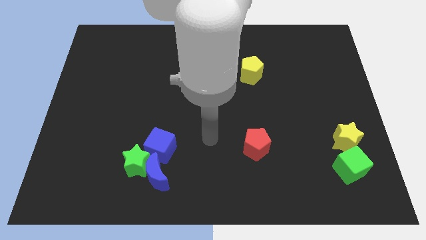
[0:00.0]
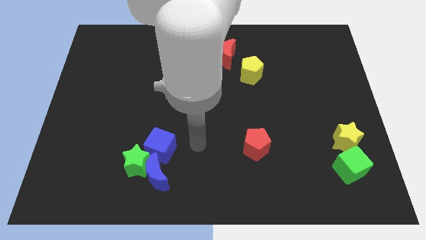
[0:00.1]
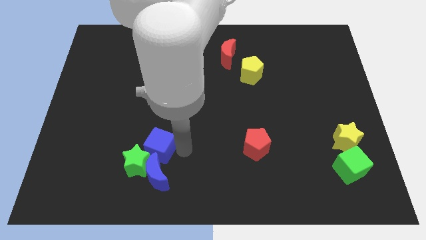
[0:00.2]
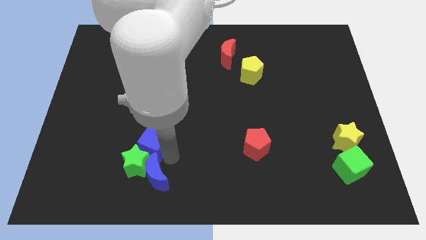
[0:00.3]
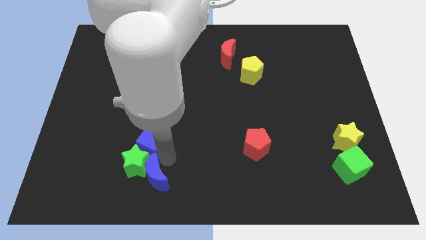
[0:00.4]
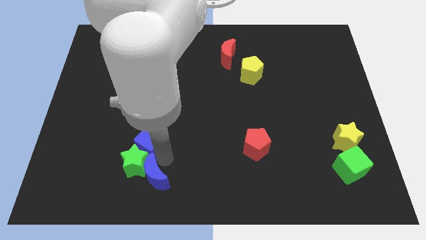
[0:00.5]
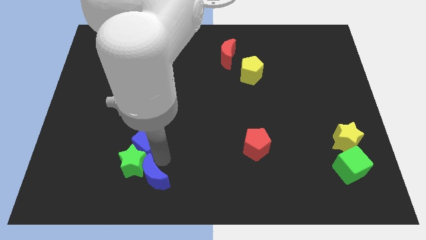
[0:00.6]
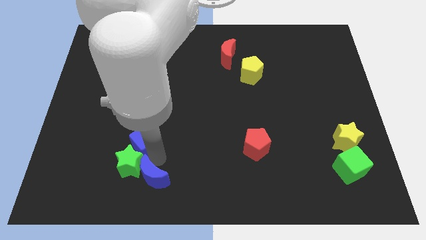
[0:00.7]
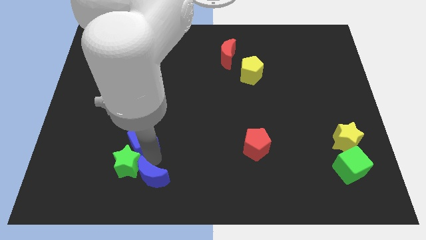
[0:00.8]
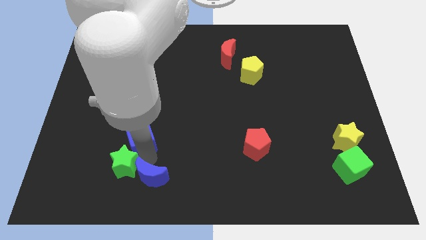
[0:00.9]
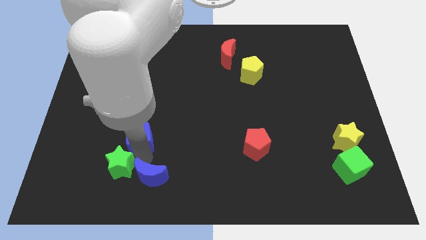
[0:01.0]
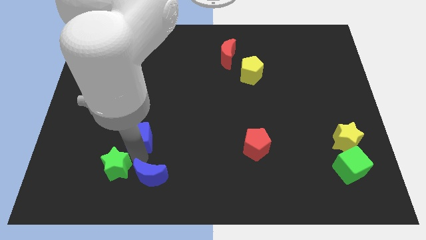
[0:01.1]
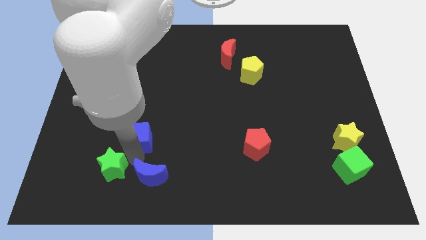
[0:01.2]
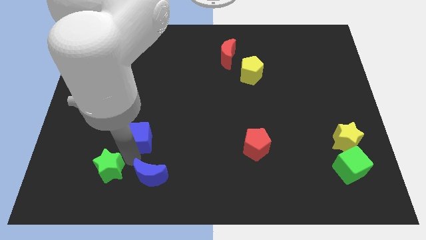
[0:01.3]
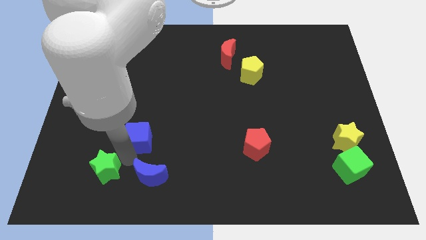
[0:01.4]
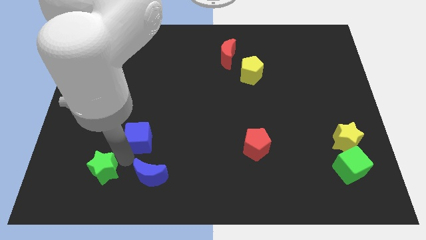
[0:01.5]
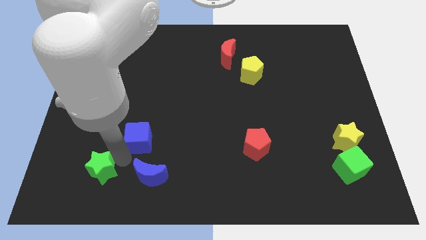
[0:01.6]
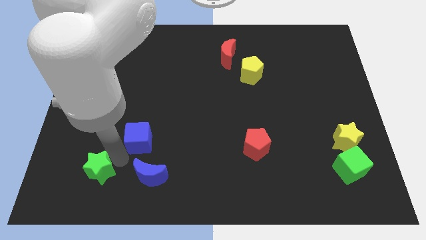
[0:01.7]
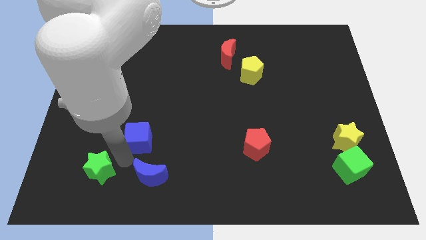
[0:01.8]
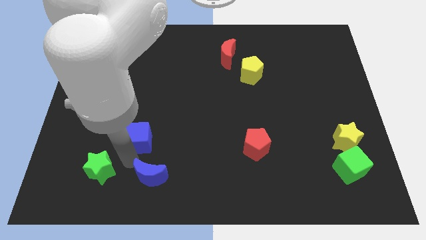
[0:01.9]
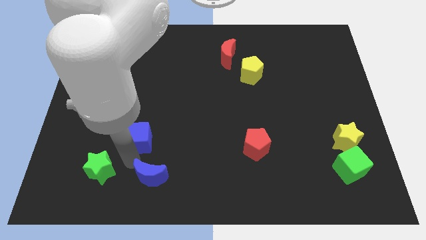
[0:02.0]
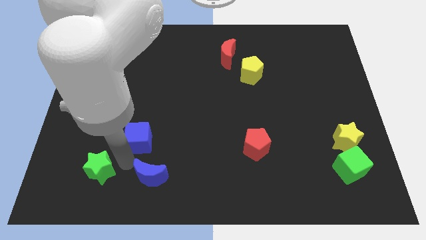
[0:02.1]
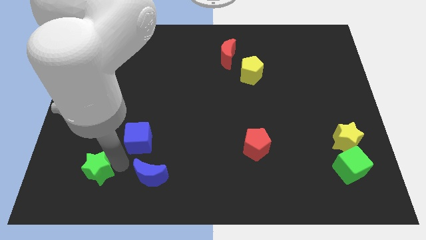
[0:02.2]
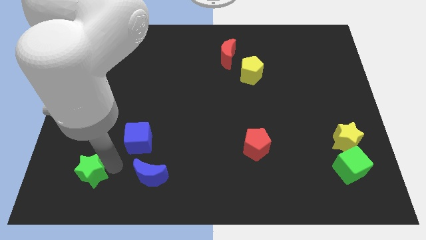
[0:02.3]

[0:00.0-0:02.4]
move the green star away from the blue moon and blue cube

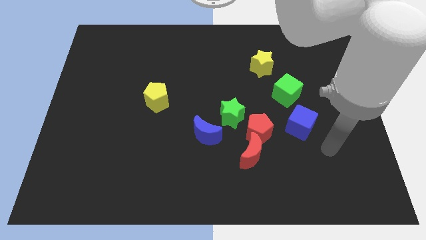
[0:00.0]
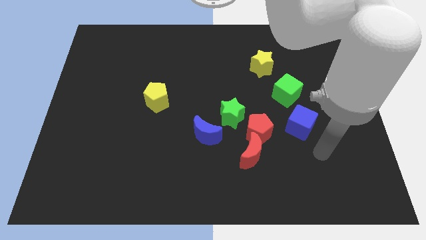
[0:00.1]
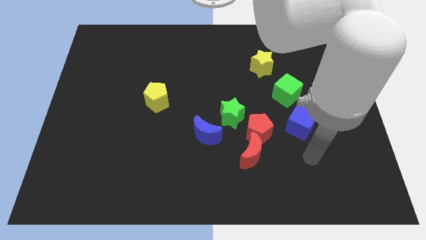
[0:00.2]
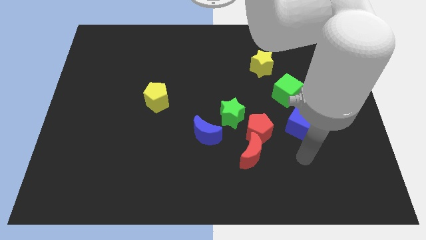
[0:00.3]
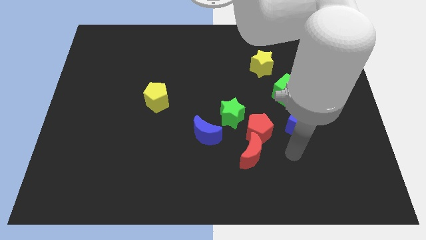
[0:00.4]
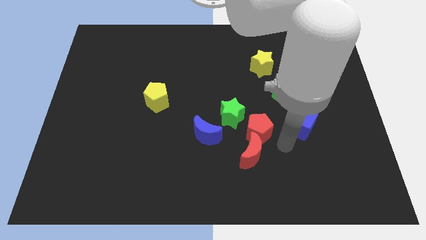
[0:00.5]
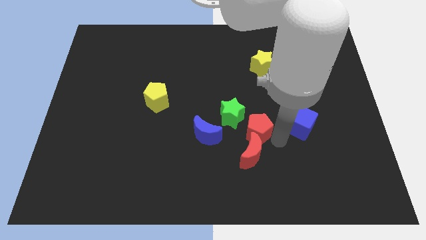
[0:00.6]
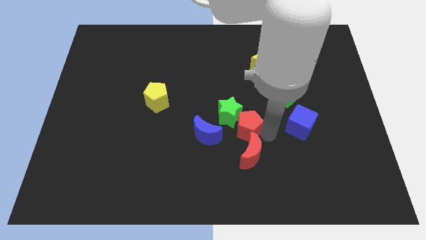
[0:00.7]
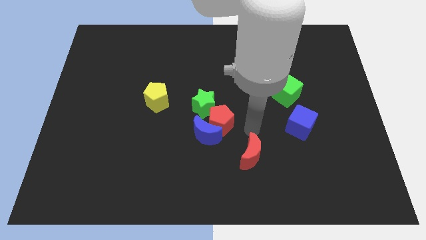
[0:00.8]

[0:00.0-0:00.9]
separate the red moon from the red pentagon

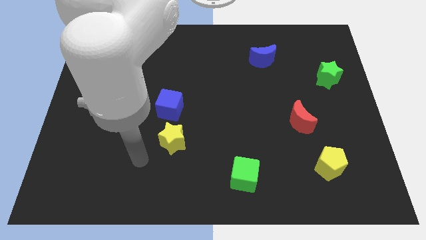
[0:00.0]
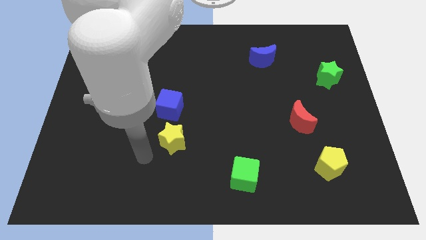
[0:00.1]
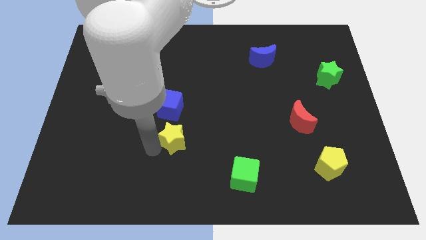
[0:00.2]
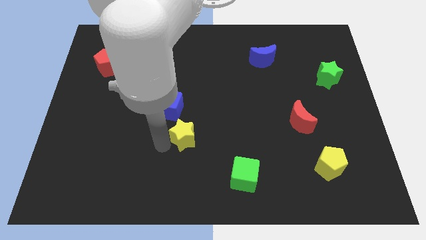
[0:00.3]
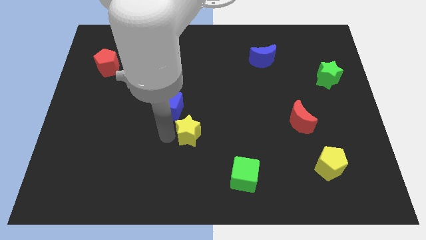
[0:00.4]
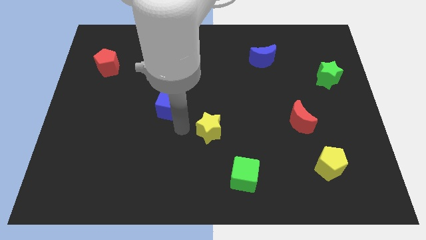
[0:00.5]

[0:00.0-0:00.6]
move the blue cube away from the yellow star

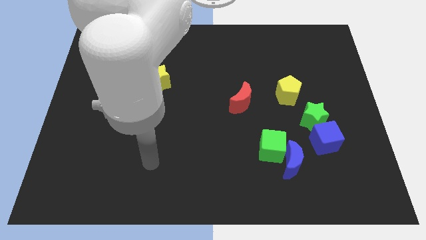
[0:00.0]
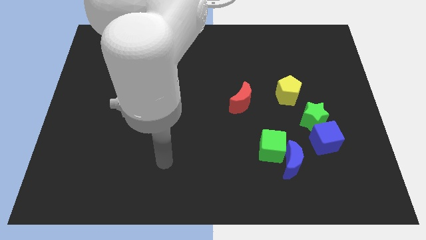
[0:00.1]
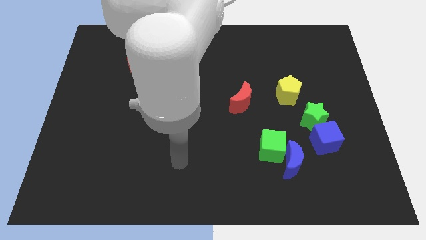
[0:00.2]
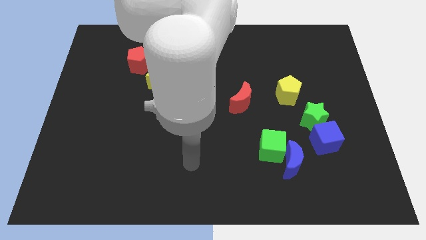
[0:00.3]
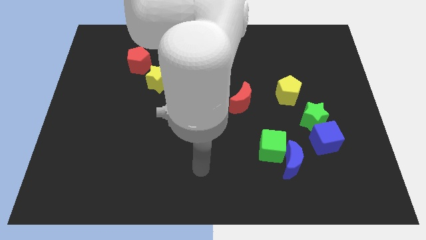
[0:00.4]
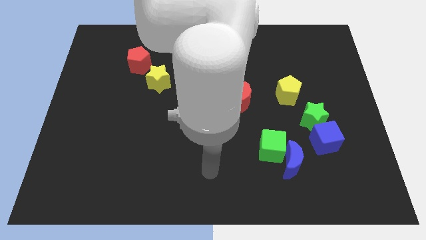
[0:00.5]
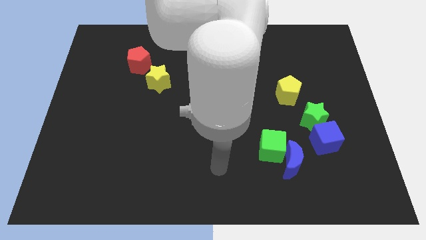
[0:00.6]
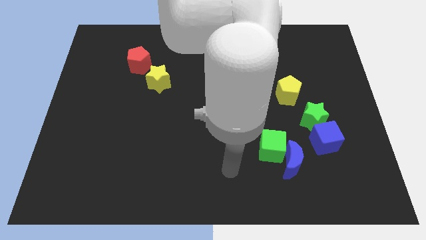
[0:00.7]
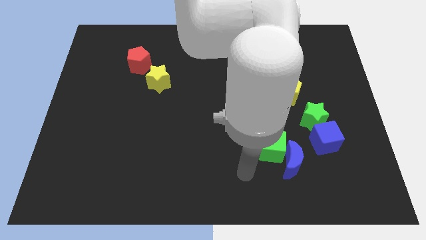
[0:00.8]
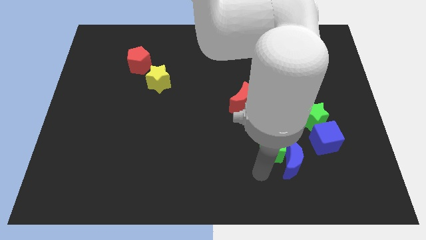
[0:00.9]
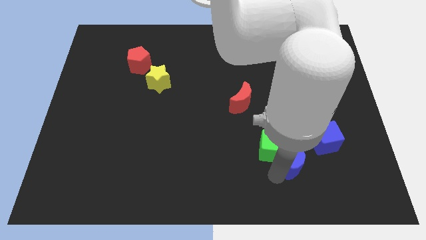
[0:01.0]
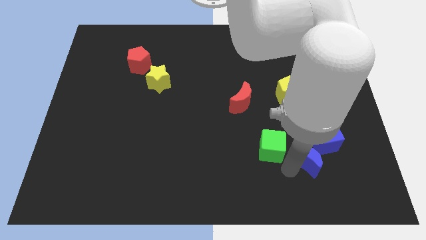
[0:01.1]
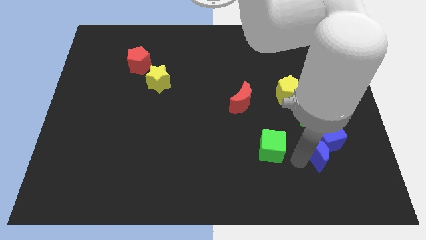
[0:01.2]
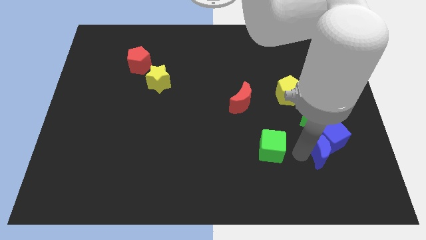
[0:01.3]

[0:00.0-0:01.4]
separate the green cube from the blue moon

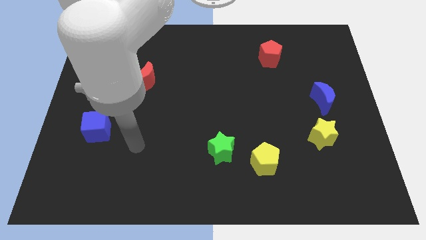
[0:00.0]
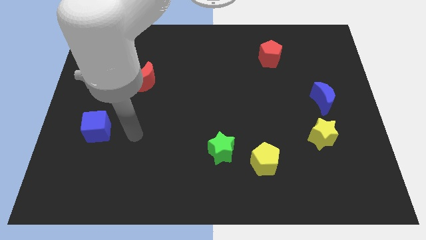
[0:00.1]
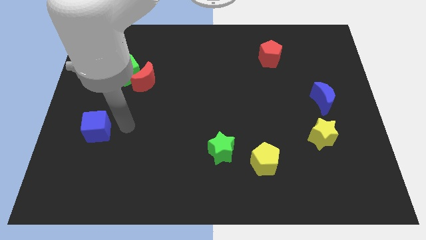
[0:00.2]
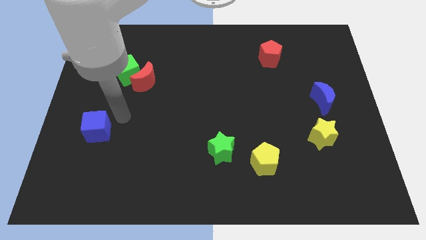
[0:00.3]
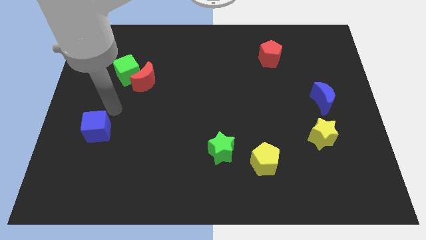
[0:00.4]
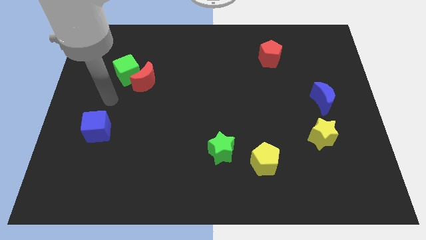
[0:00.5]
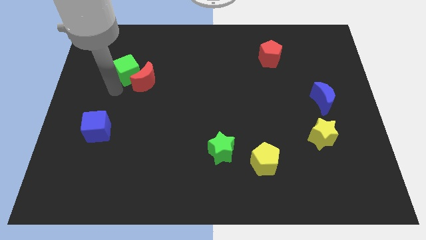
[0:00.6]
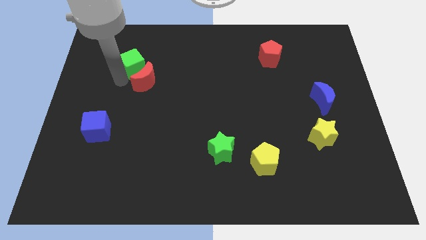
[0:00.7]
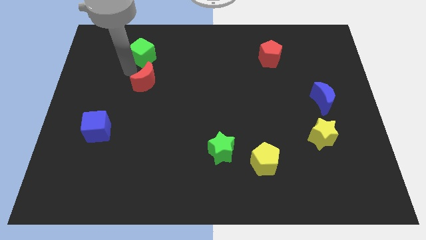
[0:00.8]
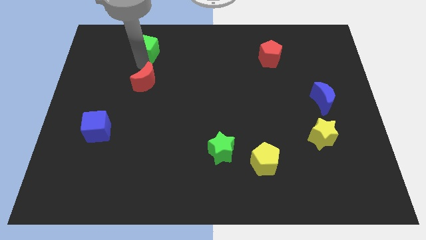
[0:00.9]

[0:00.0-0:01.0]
separate the red moon from the green cube

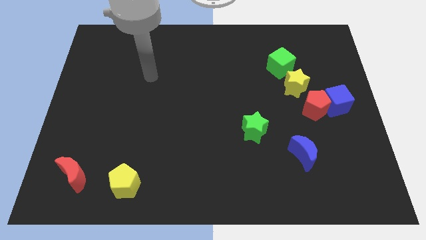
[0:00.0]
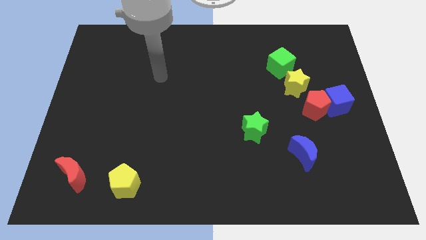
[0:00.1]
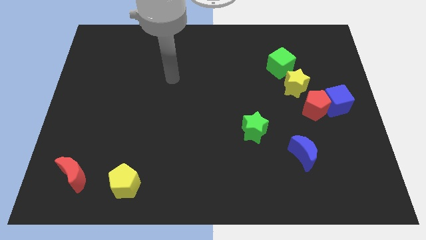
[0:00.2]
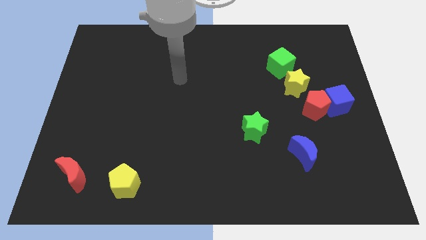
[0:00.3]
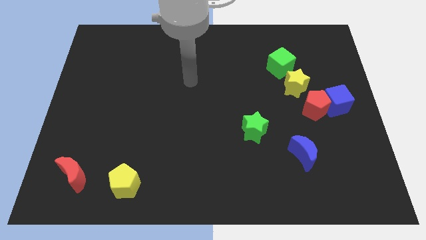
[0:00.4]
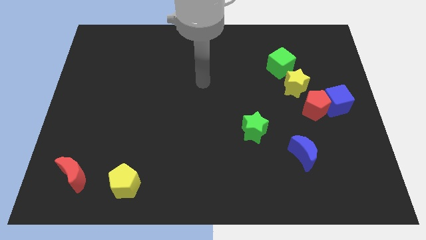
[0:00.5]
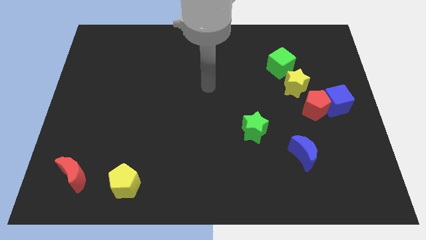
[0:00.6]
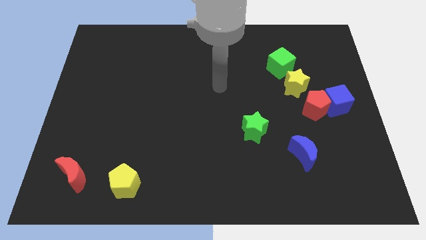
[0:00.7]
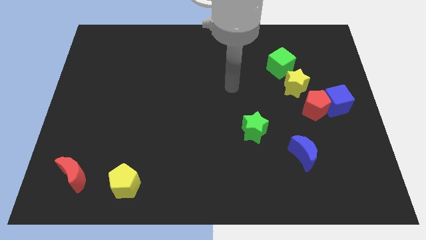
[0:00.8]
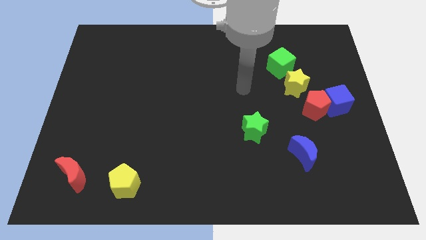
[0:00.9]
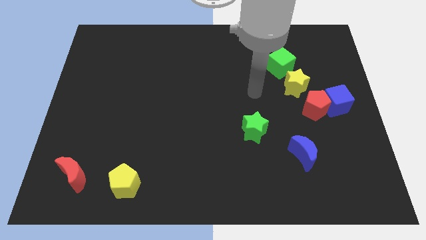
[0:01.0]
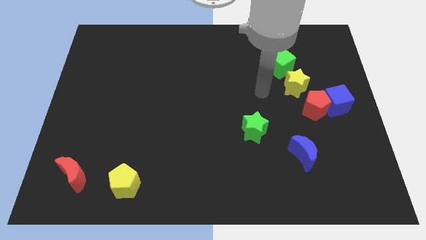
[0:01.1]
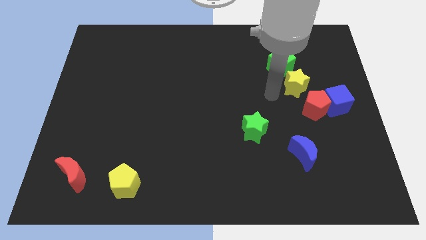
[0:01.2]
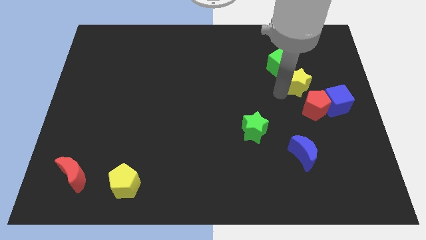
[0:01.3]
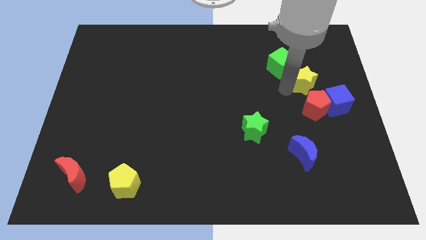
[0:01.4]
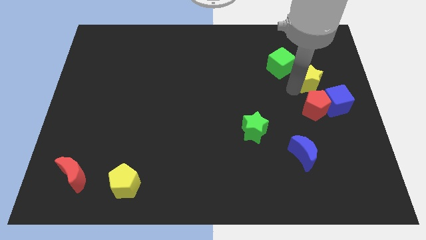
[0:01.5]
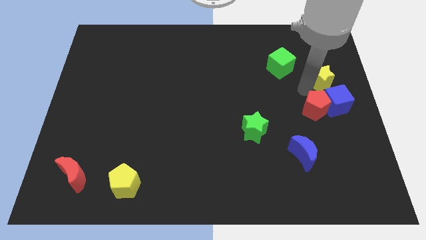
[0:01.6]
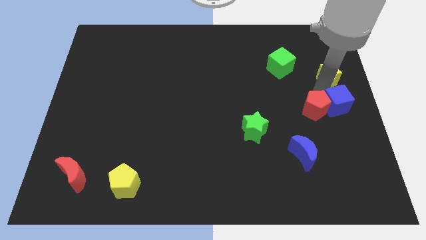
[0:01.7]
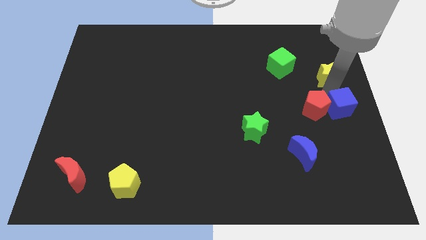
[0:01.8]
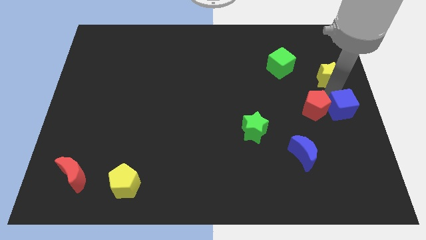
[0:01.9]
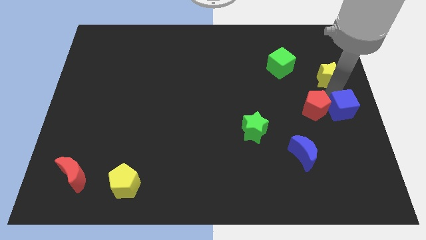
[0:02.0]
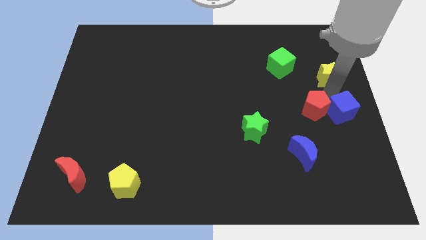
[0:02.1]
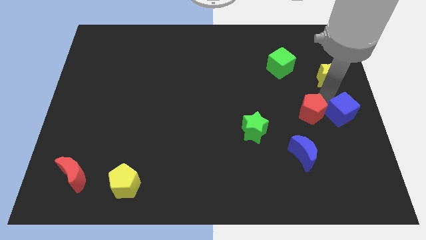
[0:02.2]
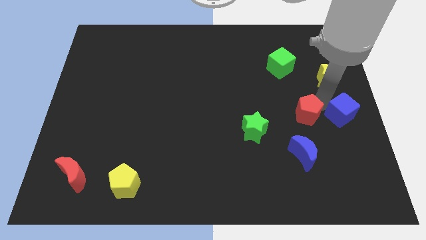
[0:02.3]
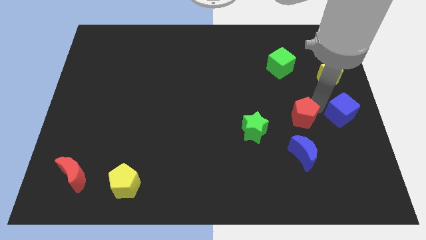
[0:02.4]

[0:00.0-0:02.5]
separate the red pentagon from the blue cube and yellow star

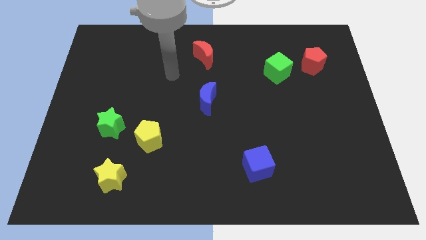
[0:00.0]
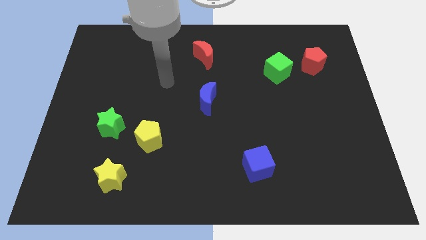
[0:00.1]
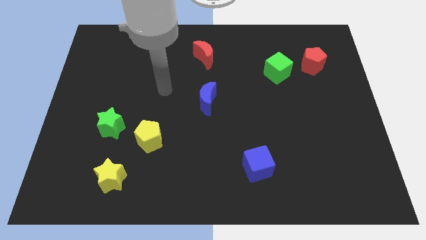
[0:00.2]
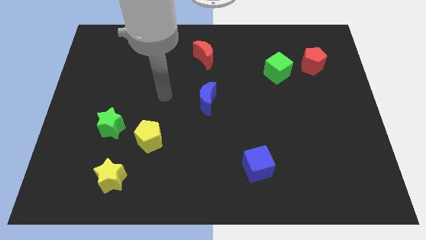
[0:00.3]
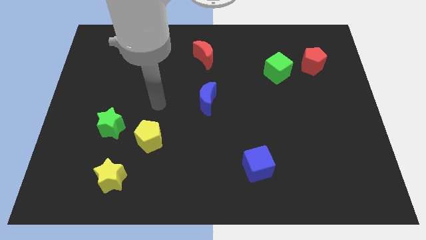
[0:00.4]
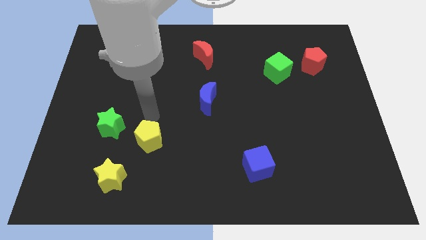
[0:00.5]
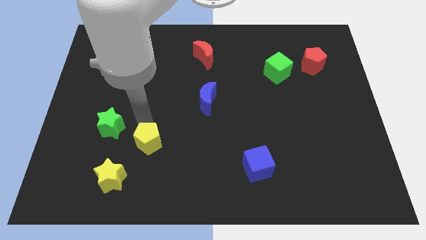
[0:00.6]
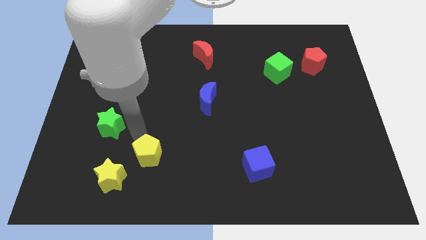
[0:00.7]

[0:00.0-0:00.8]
separate the green star from the yellow pentagon
